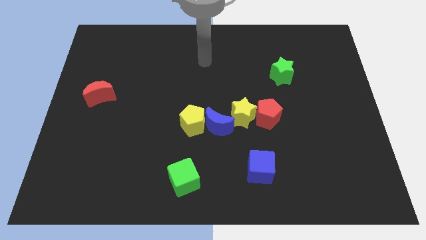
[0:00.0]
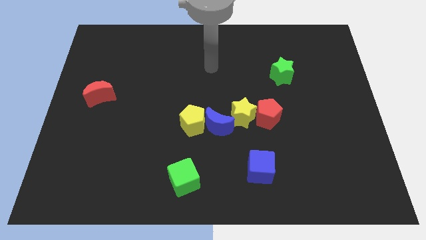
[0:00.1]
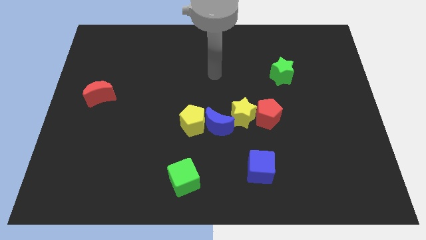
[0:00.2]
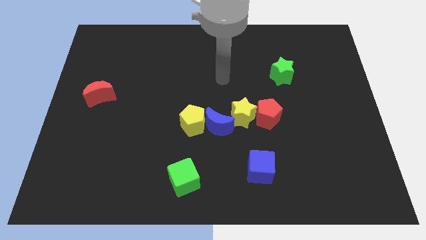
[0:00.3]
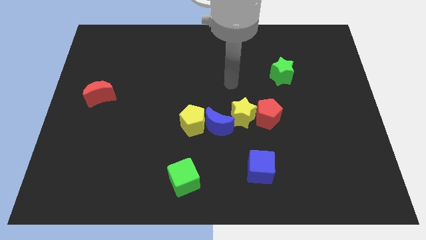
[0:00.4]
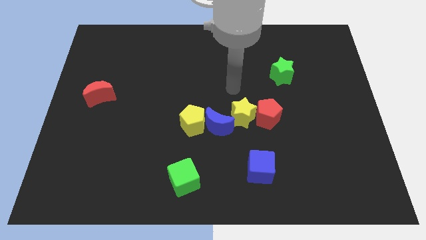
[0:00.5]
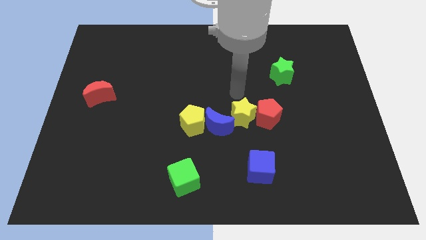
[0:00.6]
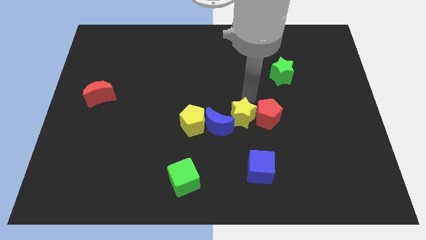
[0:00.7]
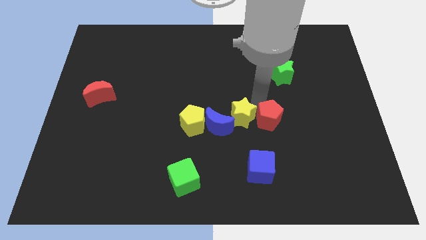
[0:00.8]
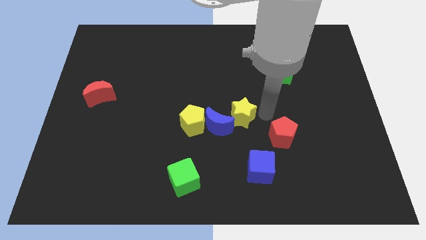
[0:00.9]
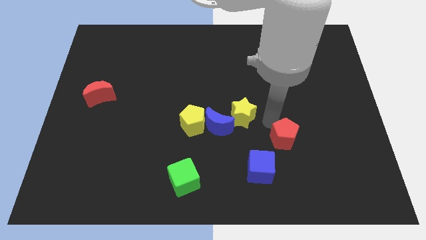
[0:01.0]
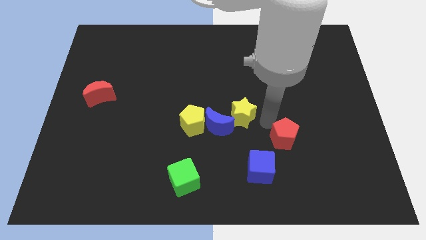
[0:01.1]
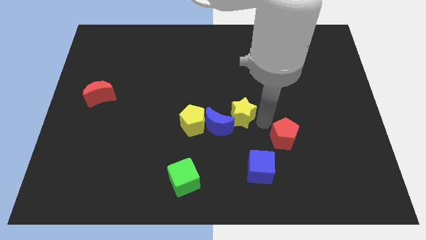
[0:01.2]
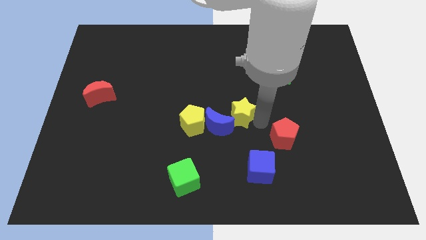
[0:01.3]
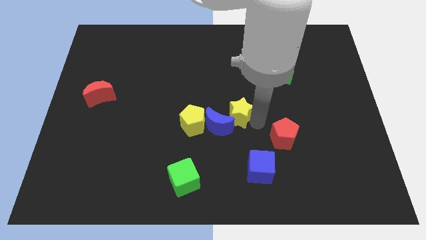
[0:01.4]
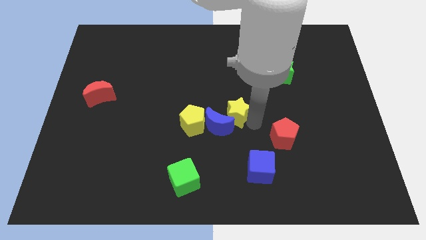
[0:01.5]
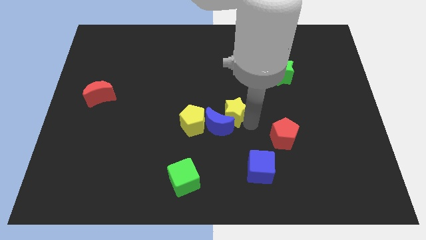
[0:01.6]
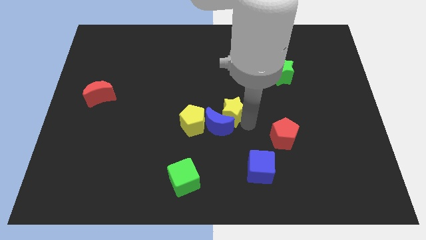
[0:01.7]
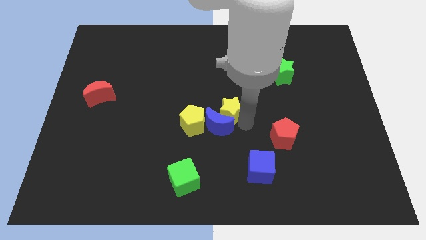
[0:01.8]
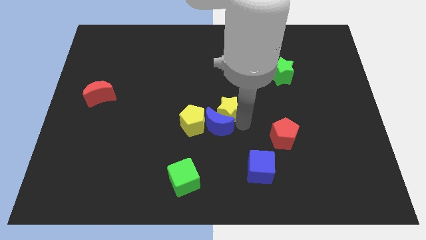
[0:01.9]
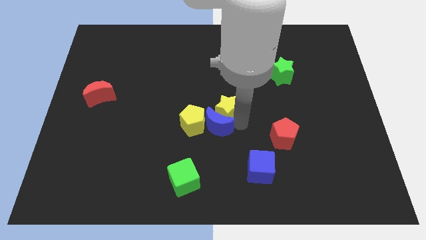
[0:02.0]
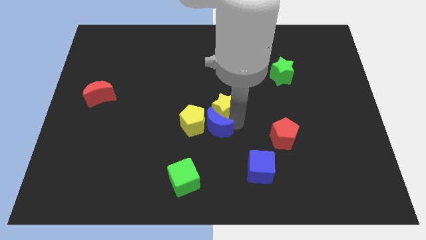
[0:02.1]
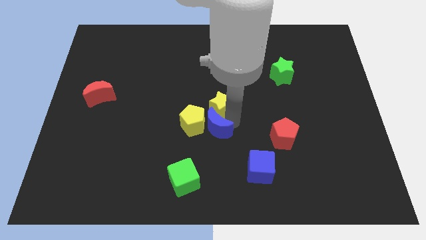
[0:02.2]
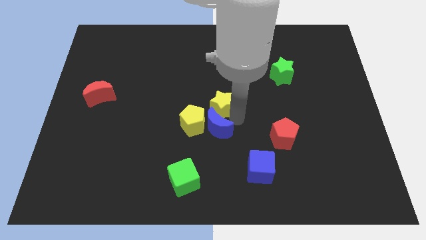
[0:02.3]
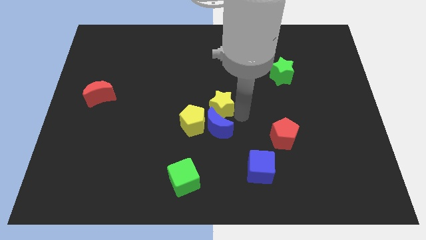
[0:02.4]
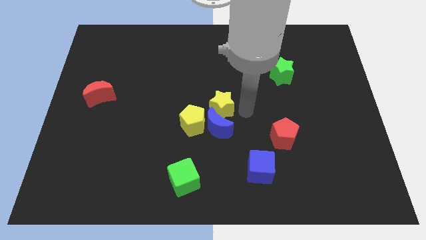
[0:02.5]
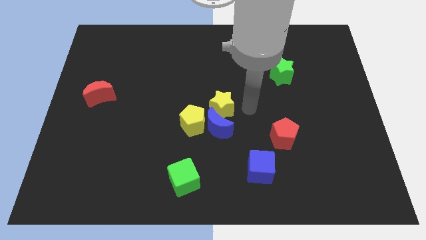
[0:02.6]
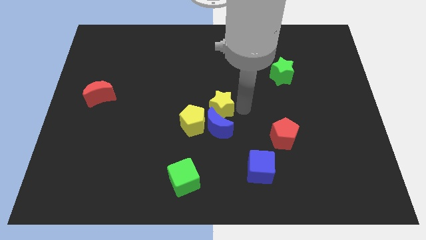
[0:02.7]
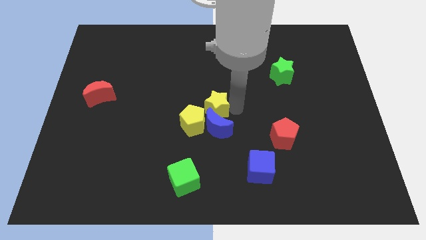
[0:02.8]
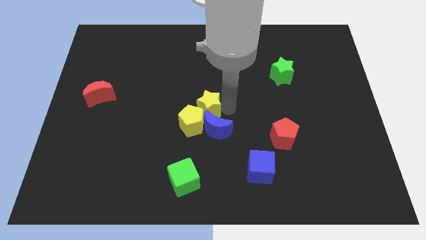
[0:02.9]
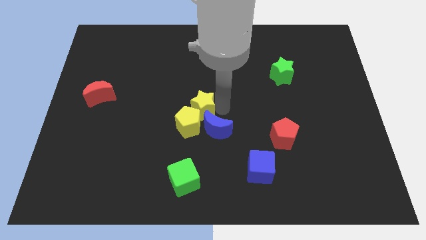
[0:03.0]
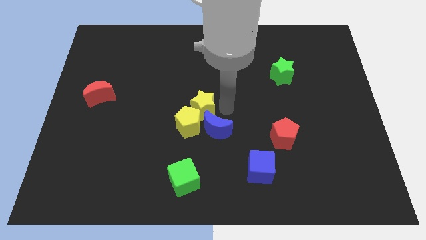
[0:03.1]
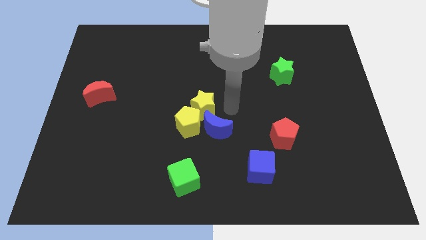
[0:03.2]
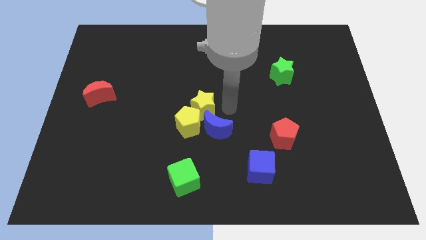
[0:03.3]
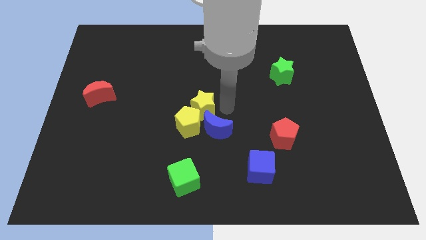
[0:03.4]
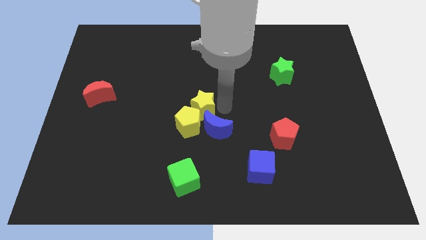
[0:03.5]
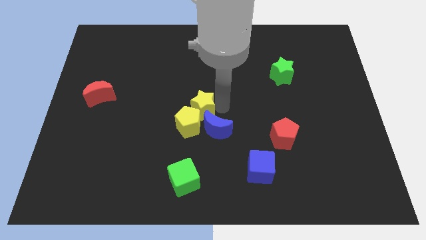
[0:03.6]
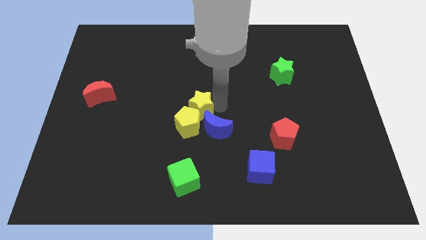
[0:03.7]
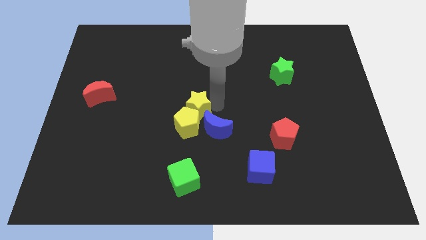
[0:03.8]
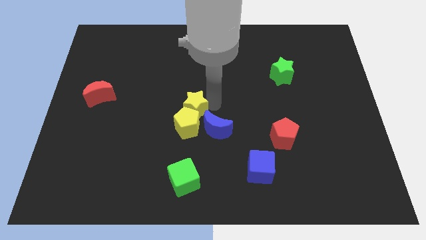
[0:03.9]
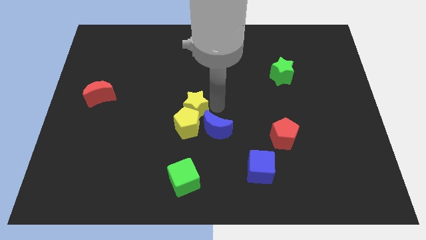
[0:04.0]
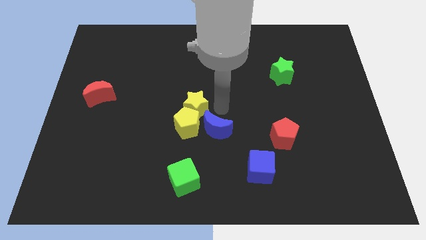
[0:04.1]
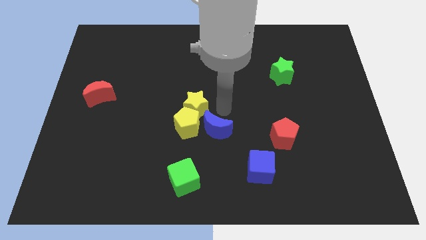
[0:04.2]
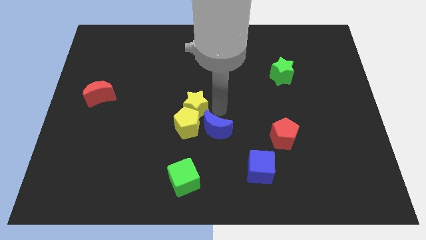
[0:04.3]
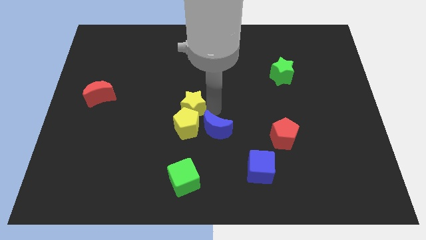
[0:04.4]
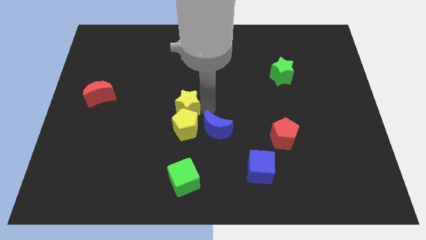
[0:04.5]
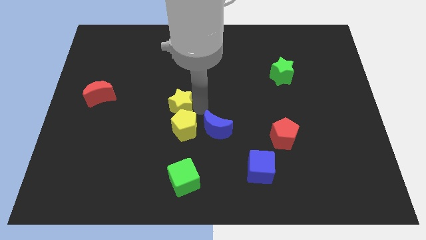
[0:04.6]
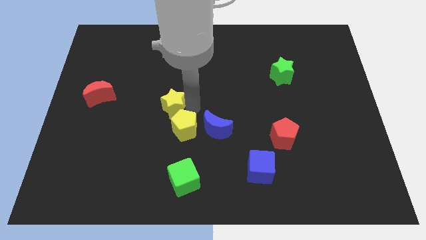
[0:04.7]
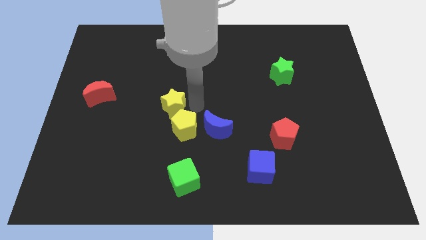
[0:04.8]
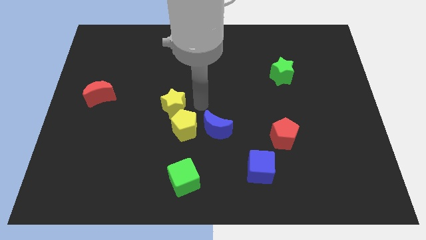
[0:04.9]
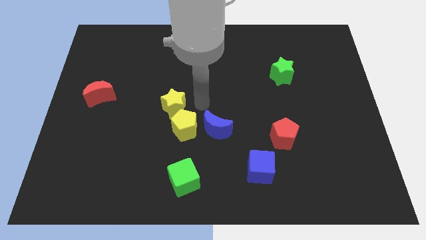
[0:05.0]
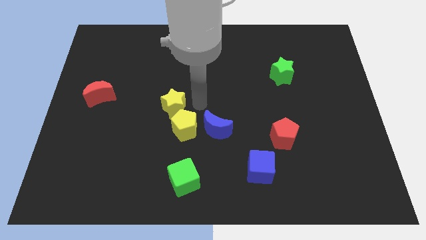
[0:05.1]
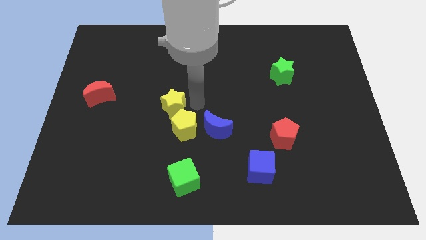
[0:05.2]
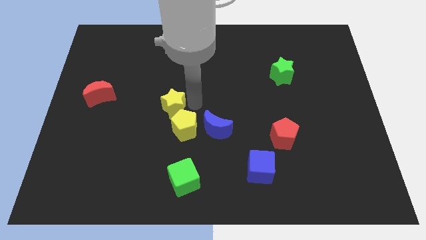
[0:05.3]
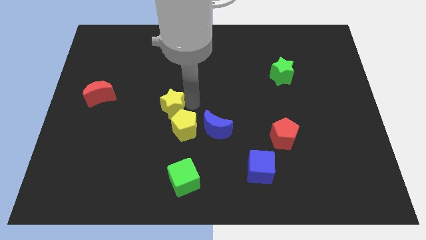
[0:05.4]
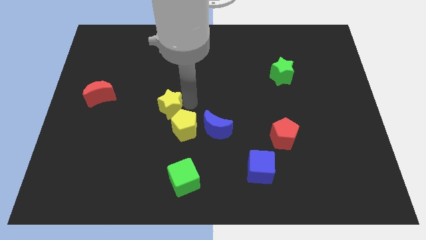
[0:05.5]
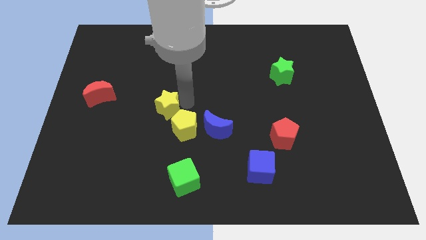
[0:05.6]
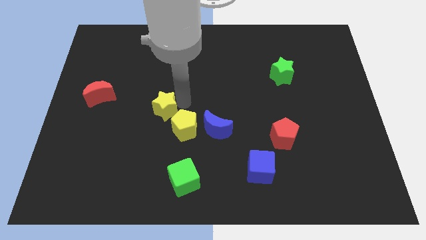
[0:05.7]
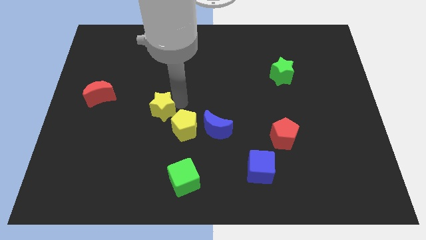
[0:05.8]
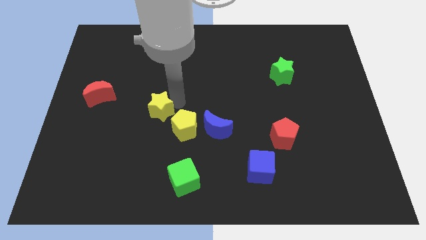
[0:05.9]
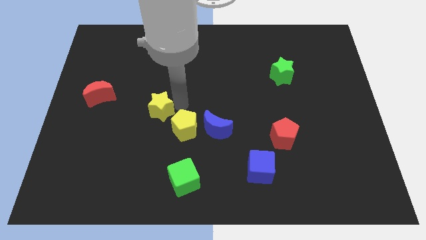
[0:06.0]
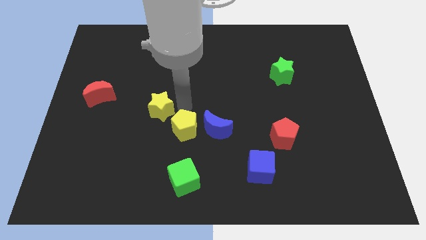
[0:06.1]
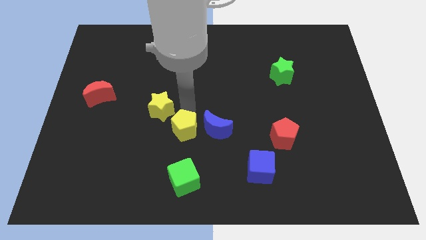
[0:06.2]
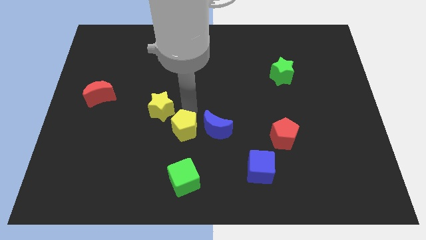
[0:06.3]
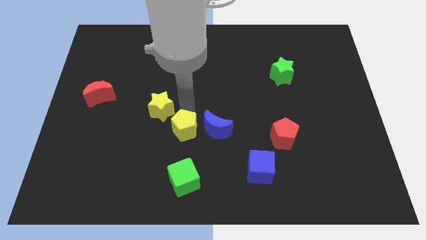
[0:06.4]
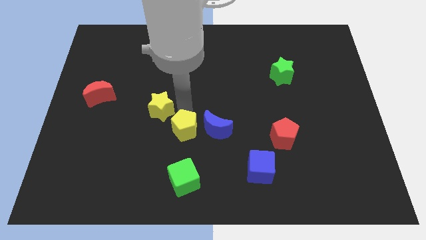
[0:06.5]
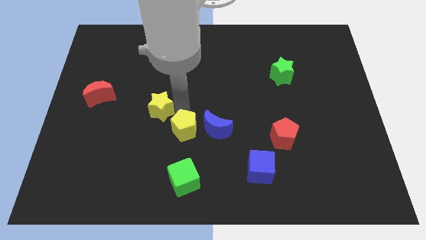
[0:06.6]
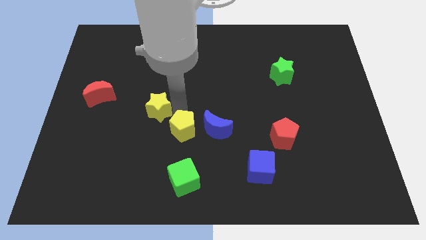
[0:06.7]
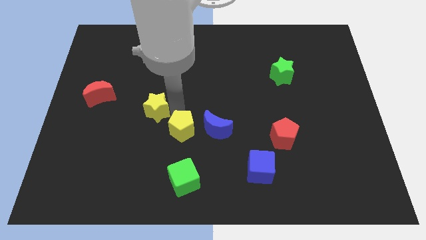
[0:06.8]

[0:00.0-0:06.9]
move the yellow star to the left

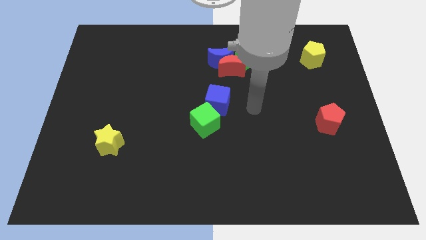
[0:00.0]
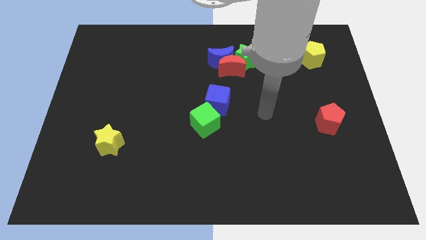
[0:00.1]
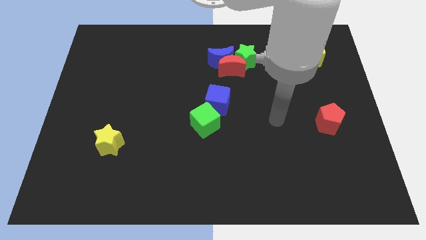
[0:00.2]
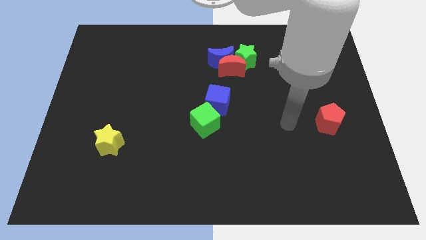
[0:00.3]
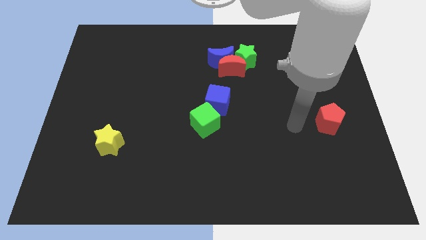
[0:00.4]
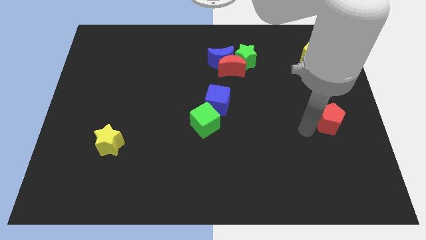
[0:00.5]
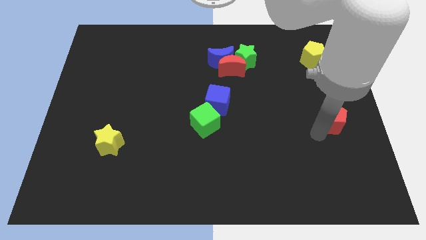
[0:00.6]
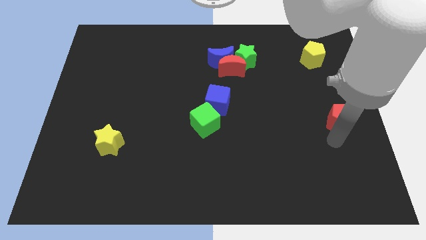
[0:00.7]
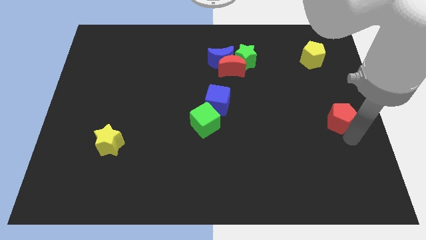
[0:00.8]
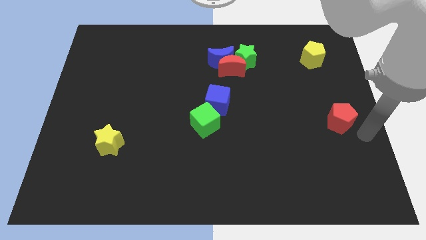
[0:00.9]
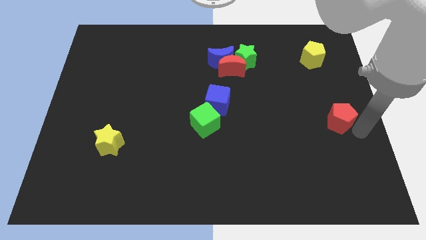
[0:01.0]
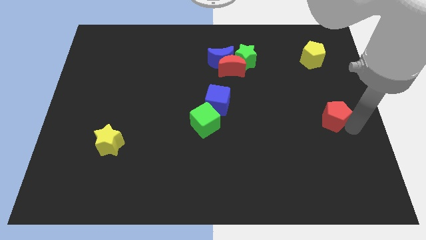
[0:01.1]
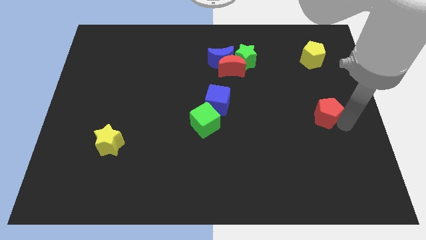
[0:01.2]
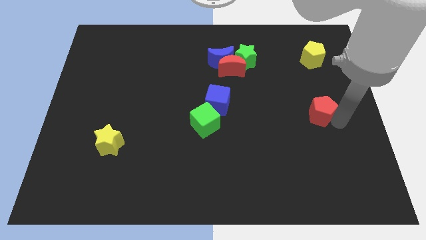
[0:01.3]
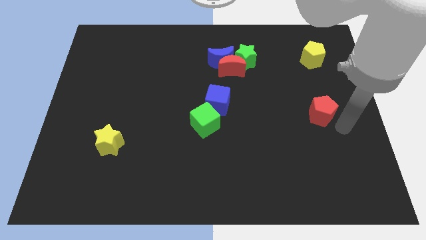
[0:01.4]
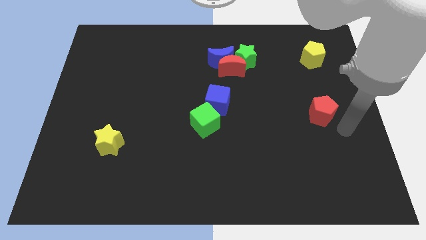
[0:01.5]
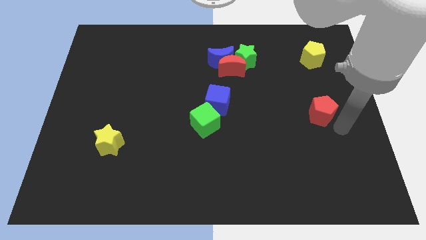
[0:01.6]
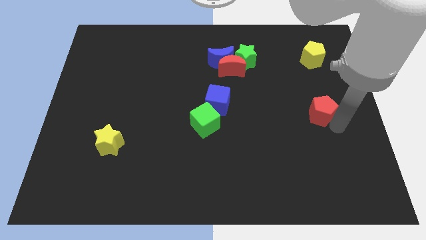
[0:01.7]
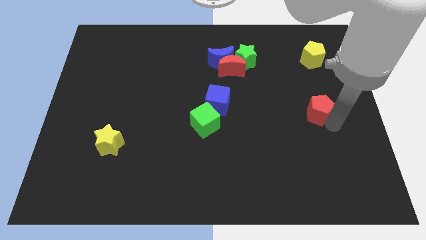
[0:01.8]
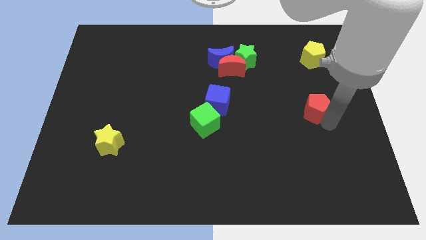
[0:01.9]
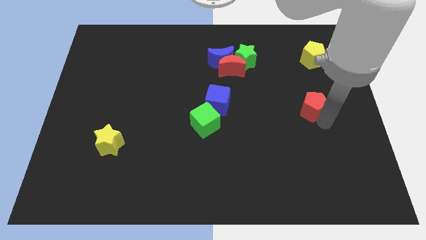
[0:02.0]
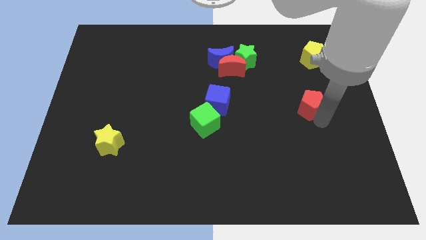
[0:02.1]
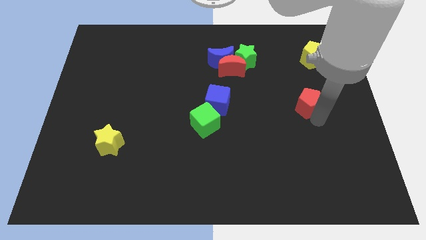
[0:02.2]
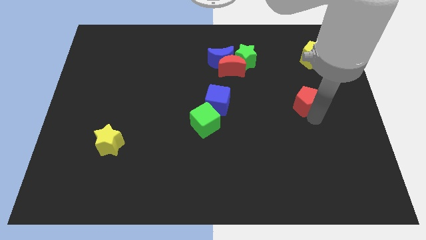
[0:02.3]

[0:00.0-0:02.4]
slide the red pentagon a little upwards and left
